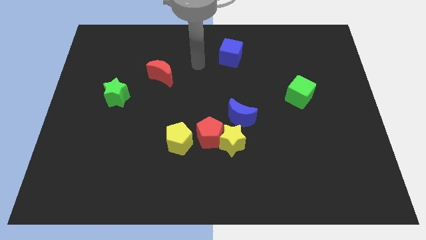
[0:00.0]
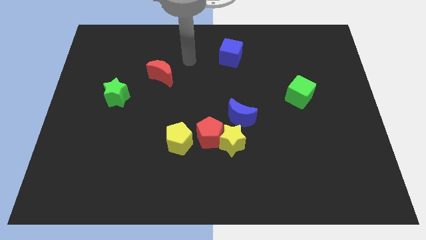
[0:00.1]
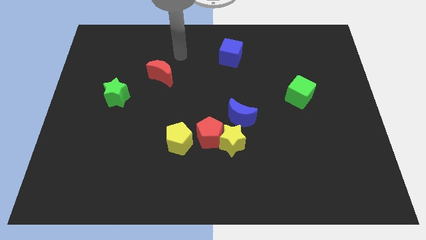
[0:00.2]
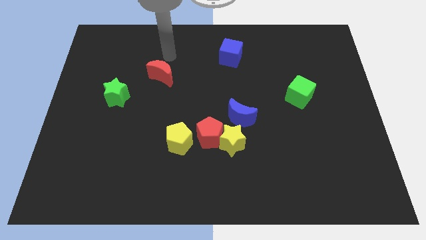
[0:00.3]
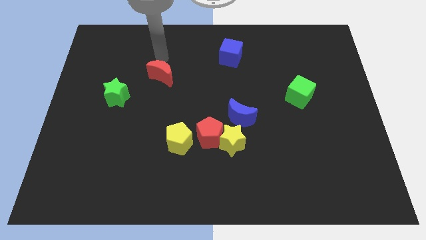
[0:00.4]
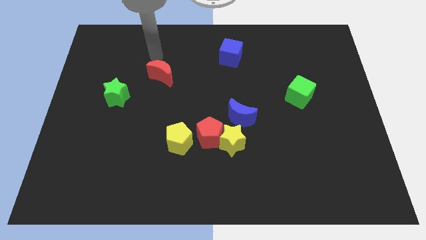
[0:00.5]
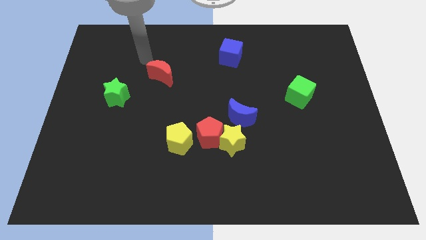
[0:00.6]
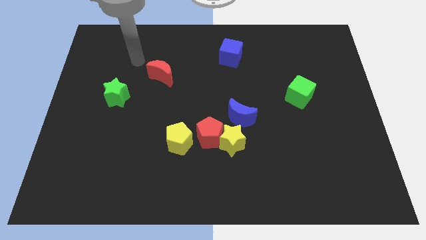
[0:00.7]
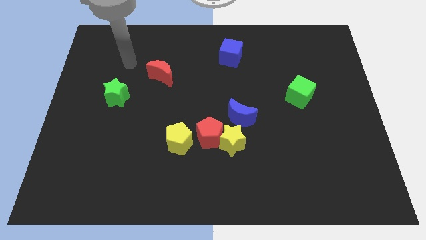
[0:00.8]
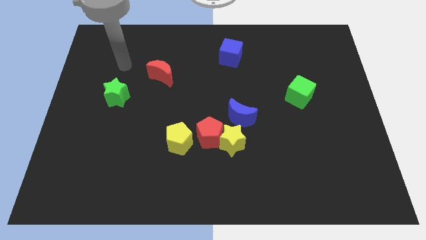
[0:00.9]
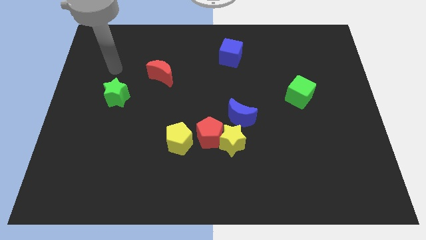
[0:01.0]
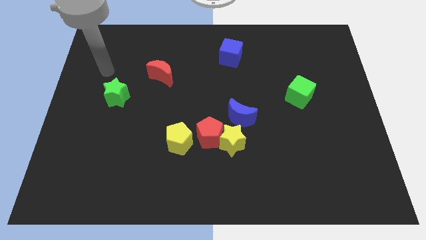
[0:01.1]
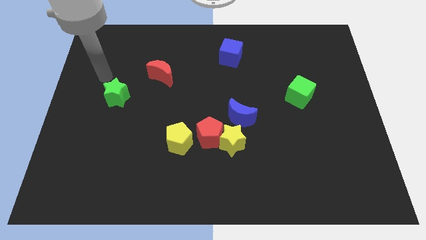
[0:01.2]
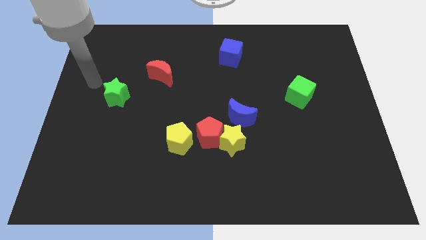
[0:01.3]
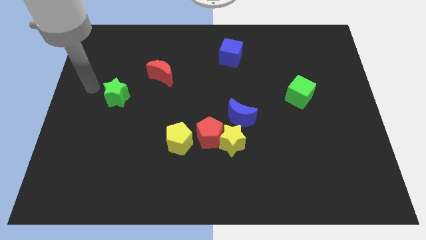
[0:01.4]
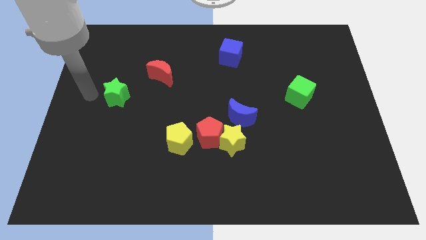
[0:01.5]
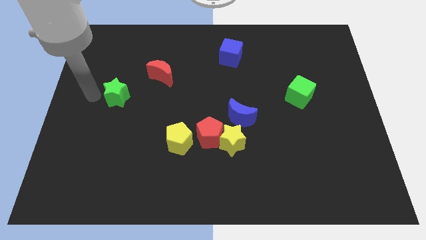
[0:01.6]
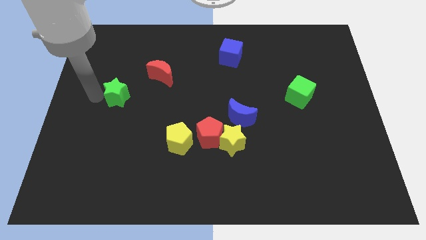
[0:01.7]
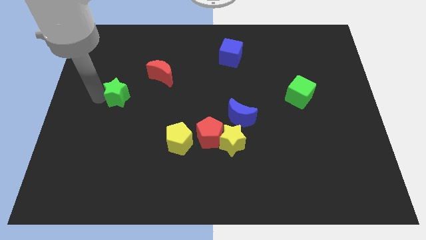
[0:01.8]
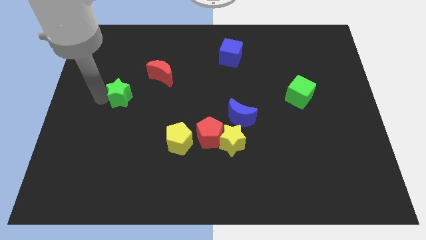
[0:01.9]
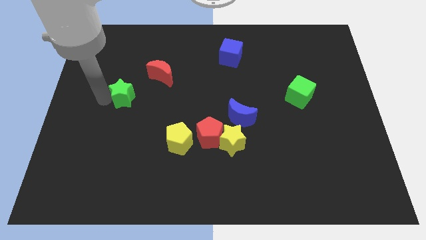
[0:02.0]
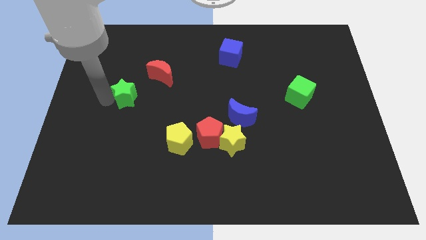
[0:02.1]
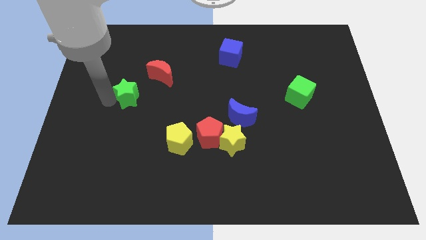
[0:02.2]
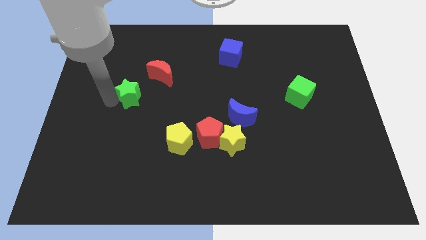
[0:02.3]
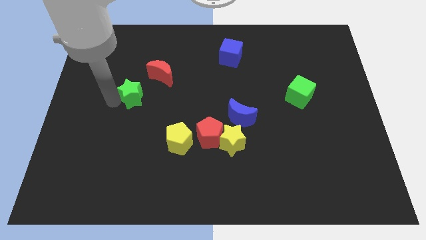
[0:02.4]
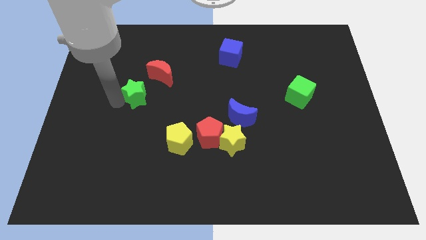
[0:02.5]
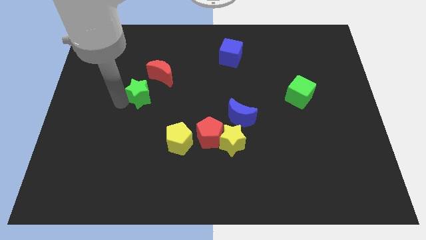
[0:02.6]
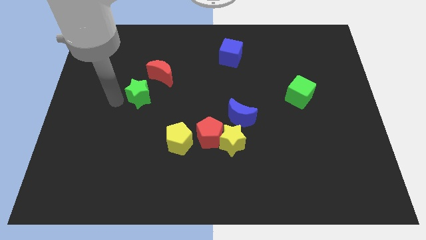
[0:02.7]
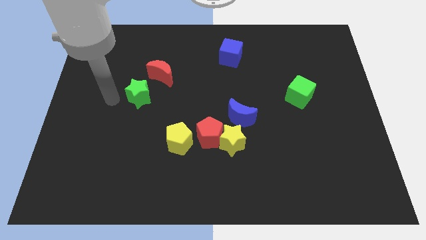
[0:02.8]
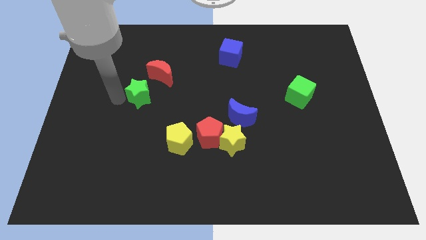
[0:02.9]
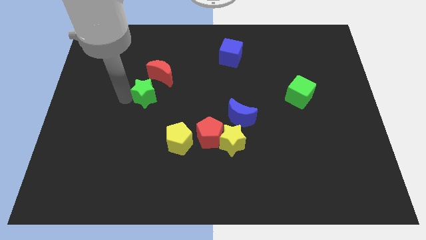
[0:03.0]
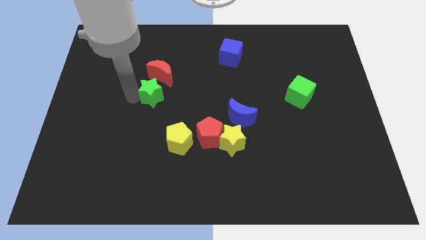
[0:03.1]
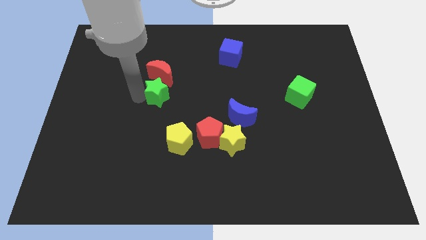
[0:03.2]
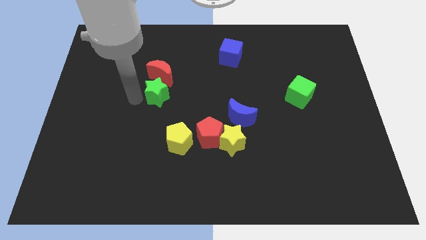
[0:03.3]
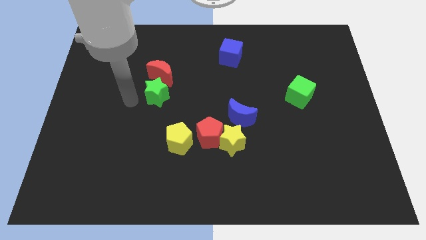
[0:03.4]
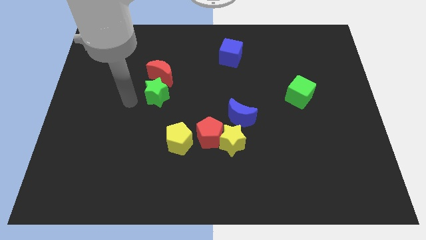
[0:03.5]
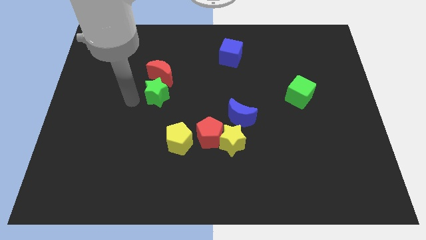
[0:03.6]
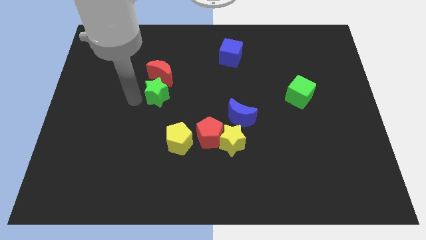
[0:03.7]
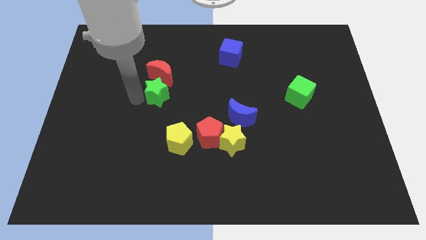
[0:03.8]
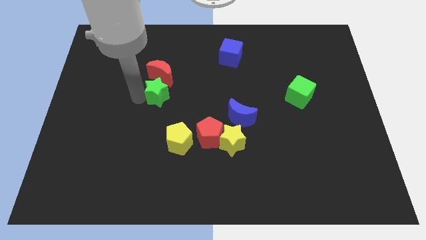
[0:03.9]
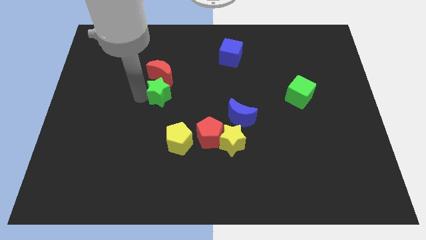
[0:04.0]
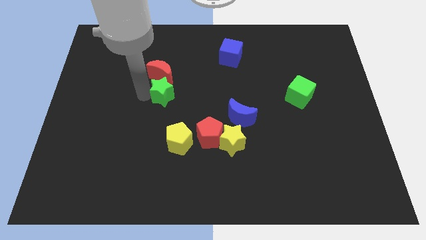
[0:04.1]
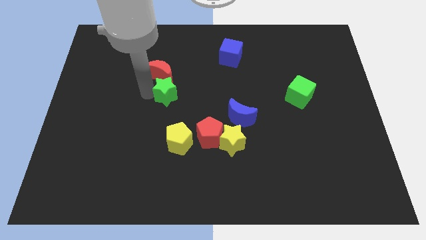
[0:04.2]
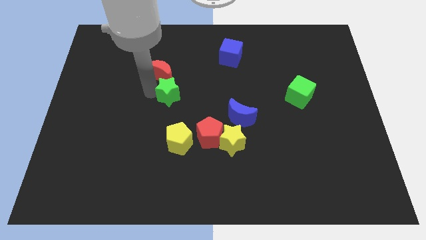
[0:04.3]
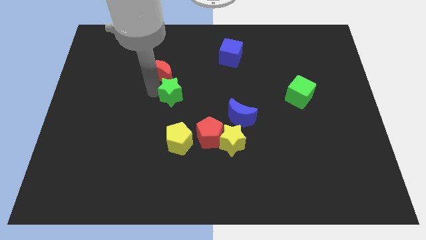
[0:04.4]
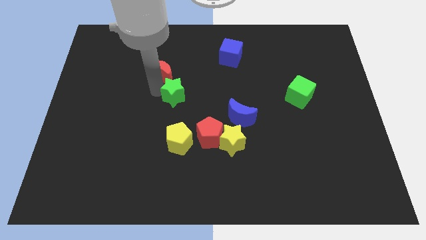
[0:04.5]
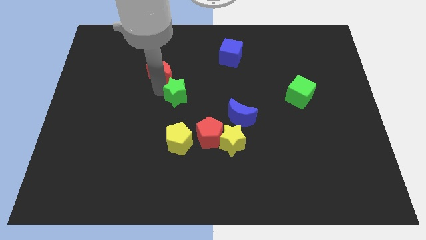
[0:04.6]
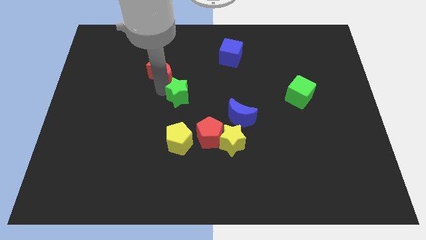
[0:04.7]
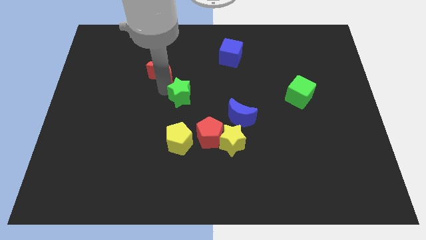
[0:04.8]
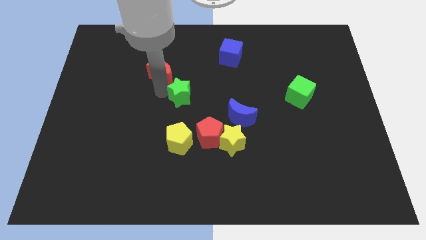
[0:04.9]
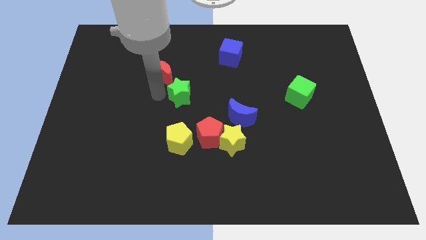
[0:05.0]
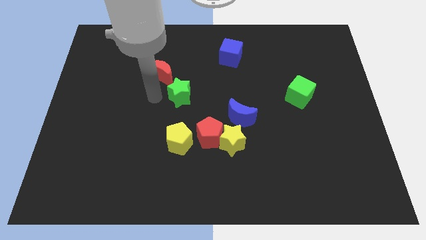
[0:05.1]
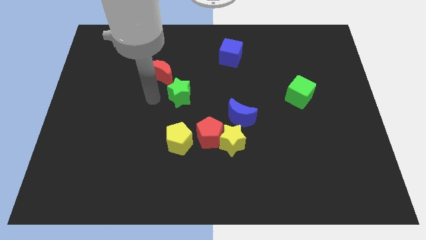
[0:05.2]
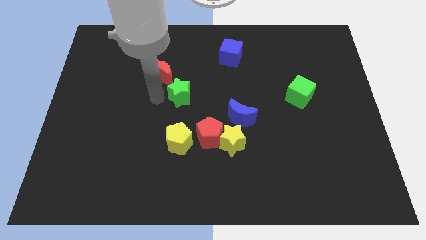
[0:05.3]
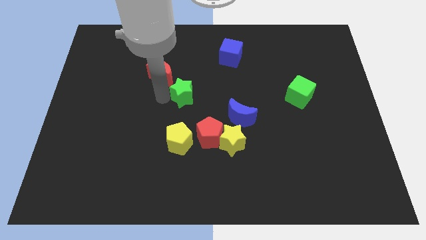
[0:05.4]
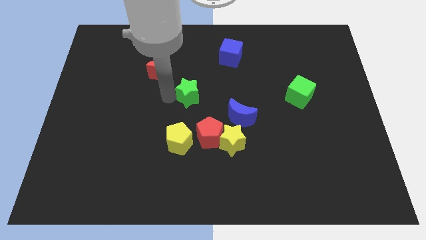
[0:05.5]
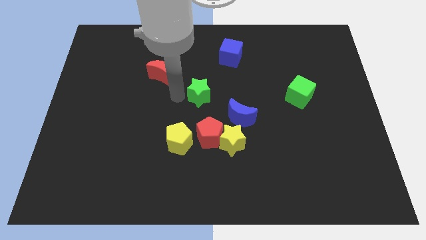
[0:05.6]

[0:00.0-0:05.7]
move the green star to the right

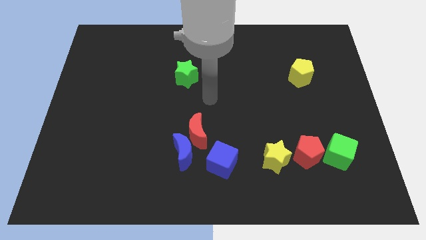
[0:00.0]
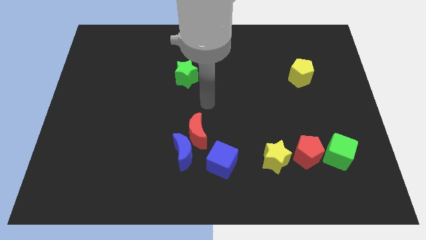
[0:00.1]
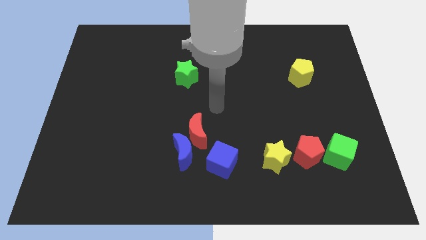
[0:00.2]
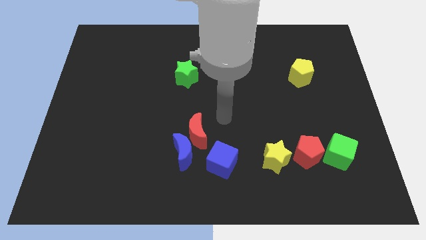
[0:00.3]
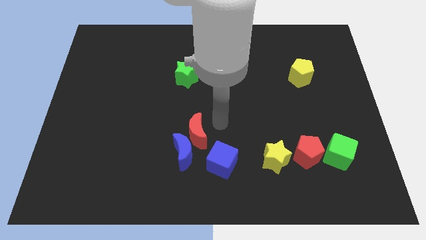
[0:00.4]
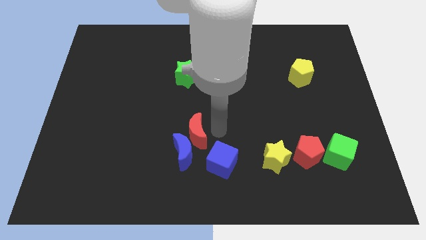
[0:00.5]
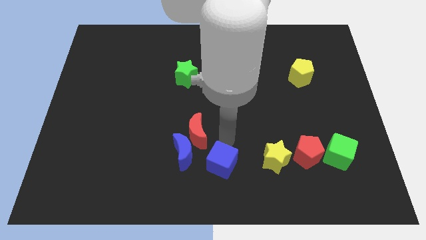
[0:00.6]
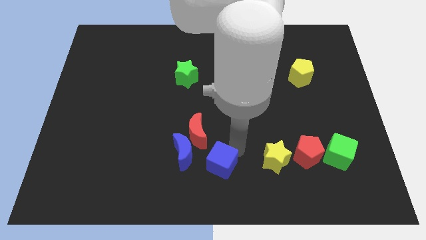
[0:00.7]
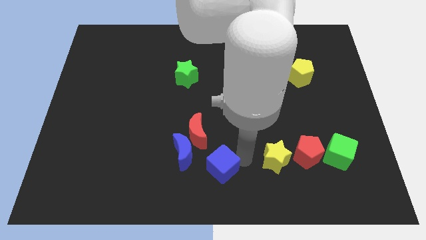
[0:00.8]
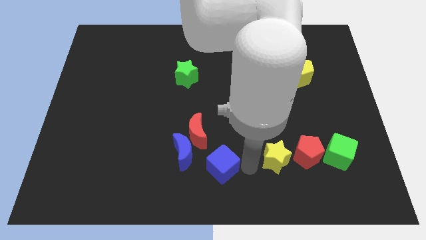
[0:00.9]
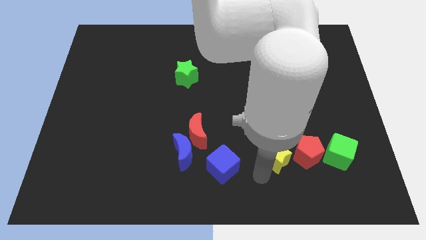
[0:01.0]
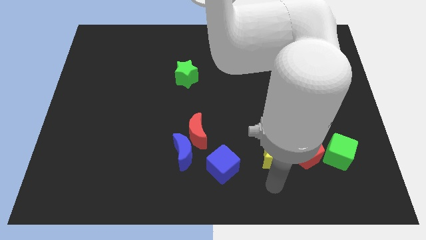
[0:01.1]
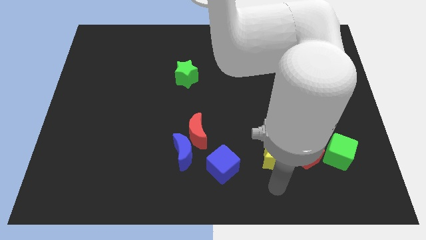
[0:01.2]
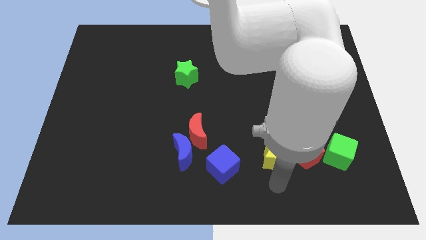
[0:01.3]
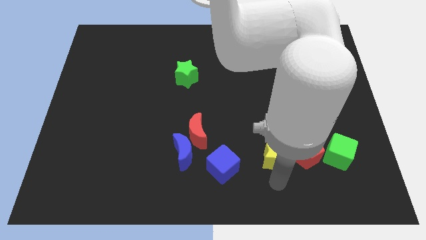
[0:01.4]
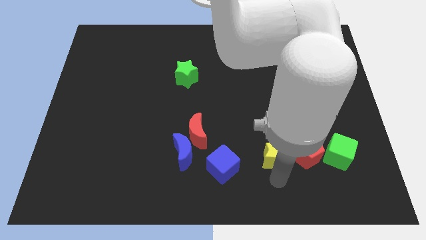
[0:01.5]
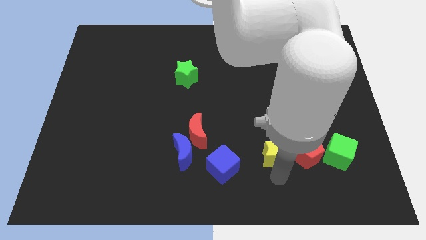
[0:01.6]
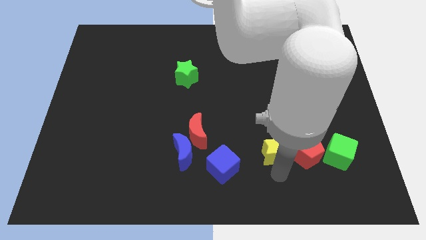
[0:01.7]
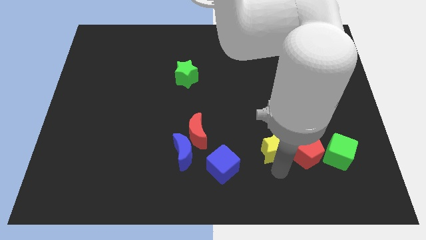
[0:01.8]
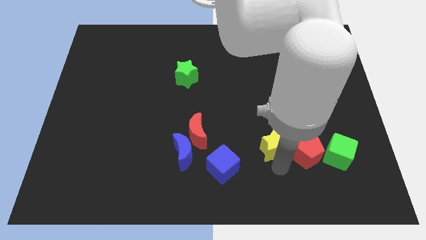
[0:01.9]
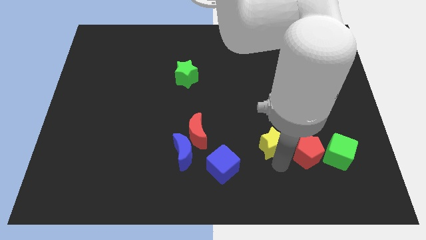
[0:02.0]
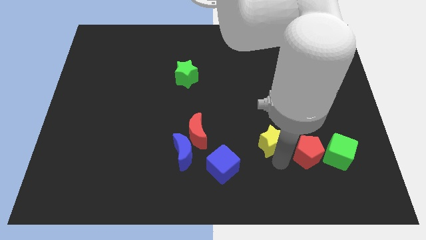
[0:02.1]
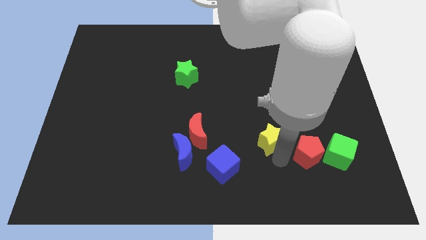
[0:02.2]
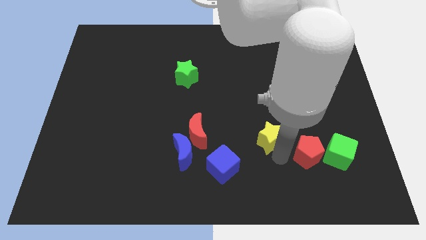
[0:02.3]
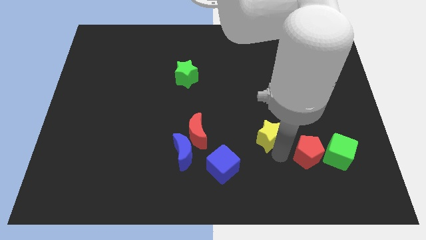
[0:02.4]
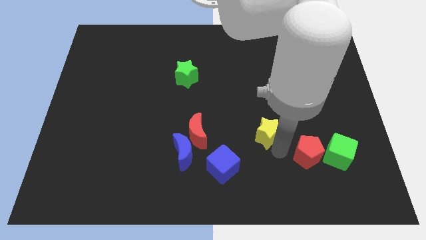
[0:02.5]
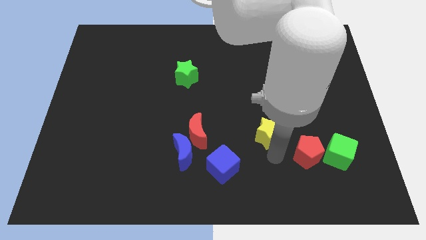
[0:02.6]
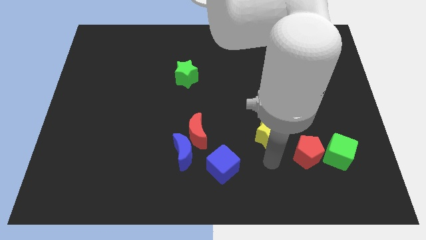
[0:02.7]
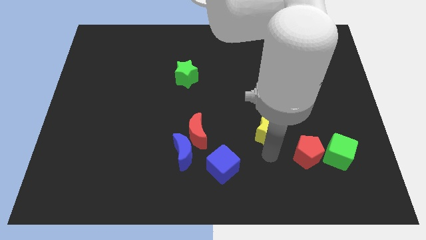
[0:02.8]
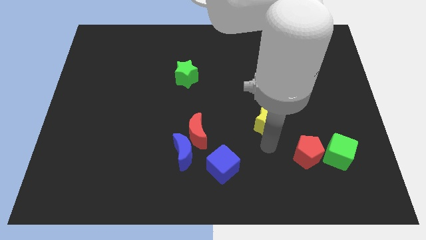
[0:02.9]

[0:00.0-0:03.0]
slightly move the yellow star up
